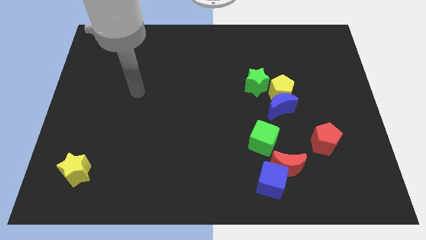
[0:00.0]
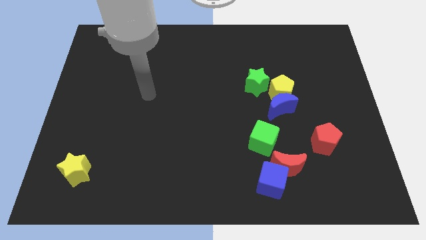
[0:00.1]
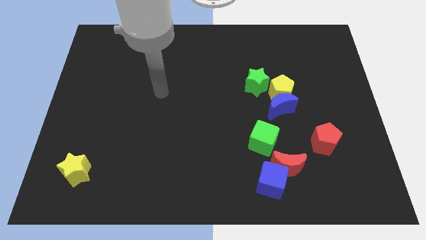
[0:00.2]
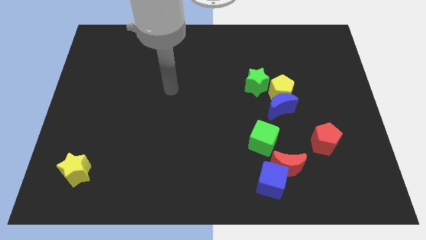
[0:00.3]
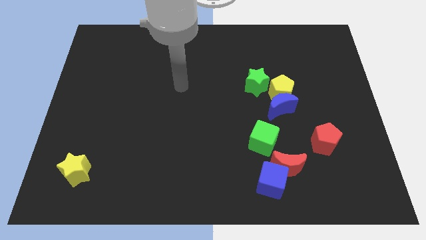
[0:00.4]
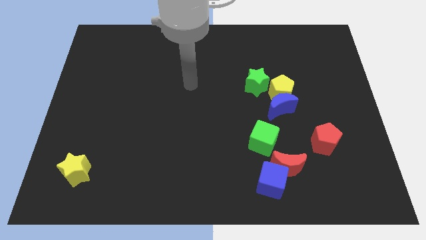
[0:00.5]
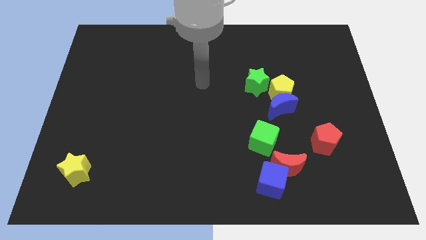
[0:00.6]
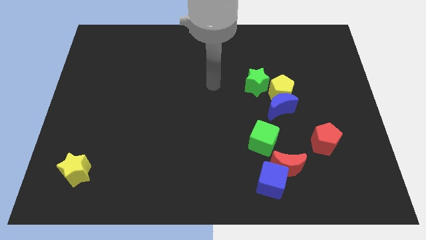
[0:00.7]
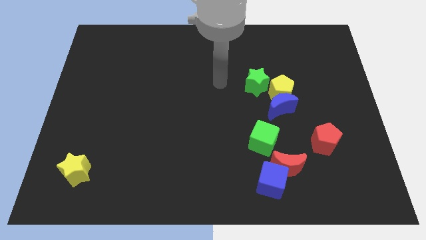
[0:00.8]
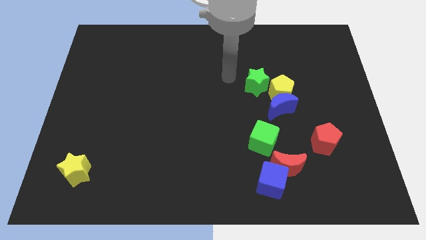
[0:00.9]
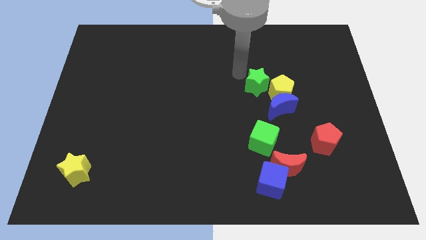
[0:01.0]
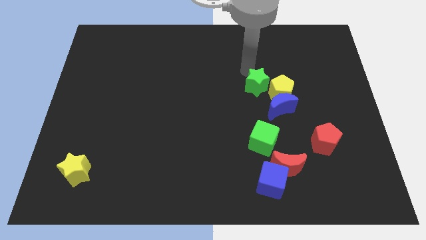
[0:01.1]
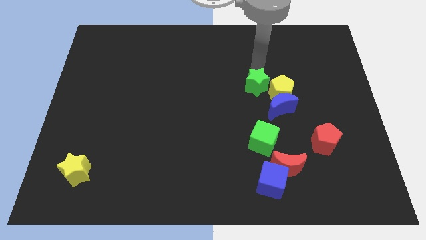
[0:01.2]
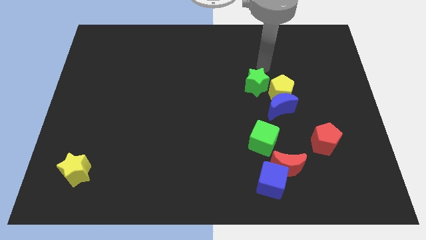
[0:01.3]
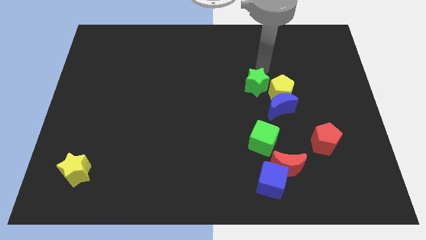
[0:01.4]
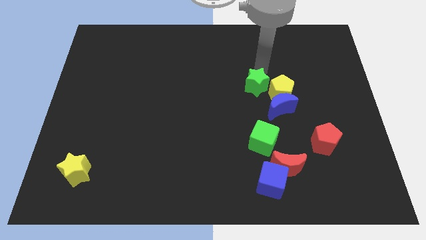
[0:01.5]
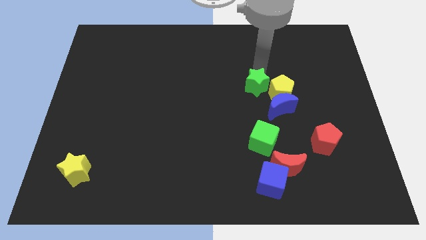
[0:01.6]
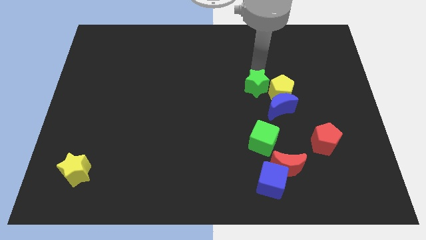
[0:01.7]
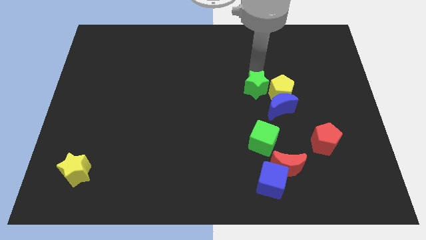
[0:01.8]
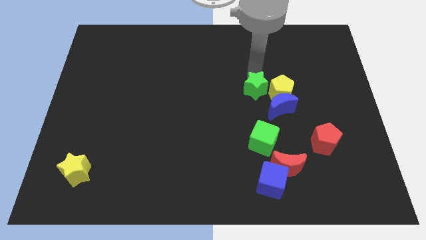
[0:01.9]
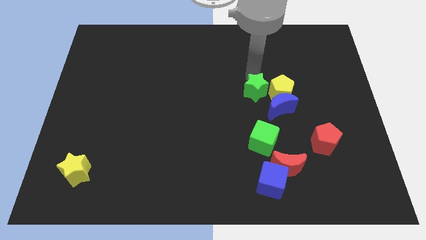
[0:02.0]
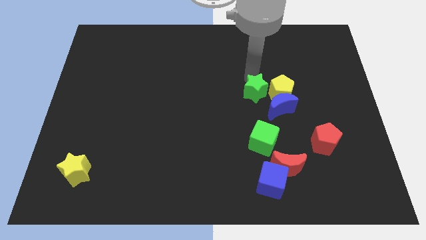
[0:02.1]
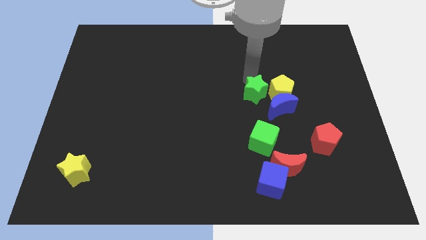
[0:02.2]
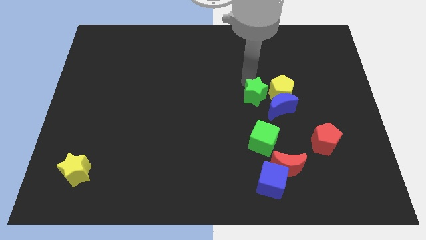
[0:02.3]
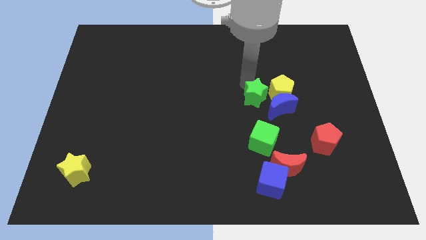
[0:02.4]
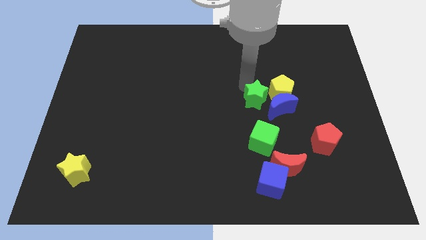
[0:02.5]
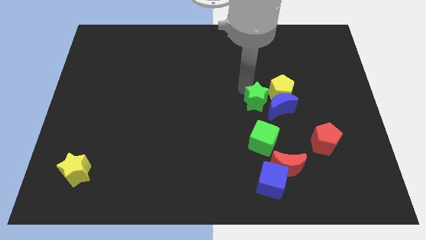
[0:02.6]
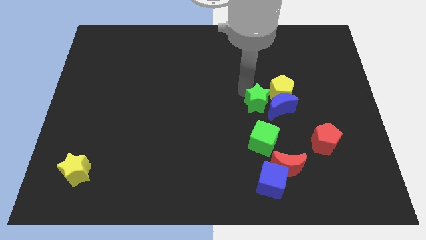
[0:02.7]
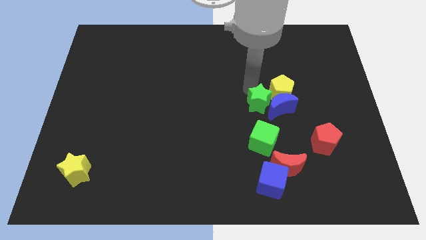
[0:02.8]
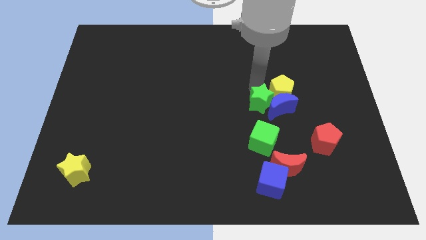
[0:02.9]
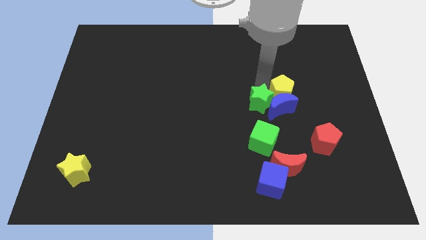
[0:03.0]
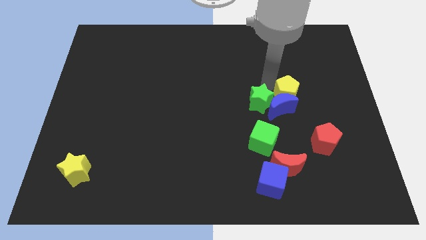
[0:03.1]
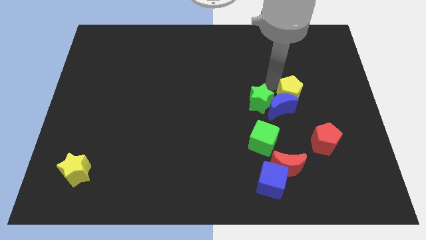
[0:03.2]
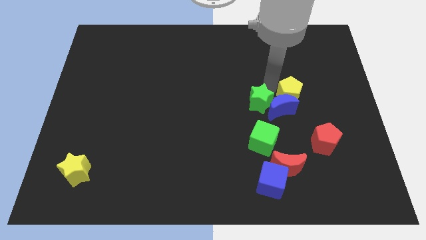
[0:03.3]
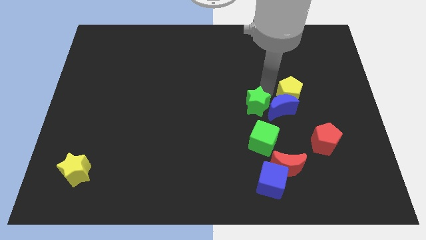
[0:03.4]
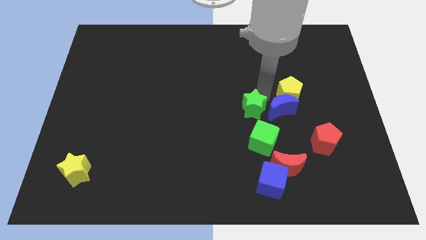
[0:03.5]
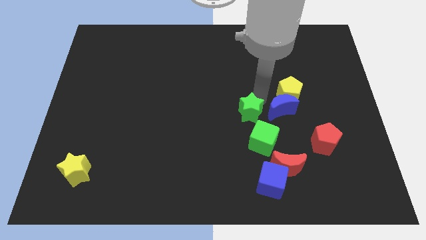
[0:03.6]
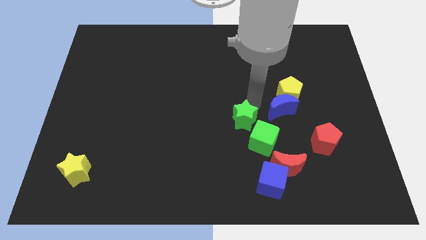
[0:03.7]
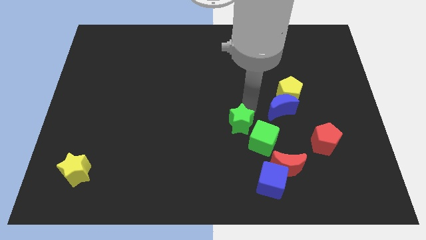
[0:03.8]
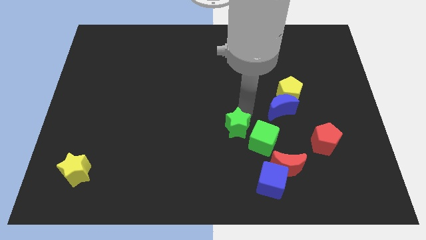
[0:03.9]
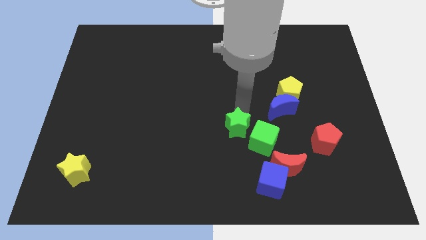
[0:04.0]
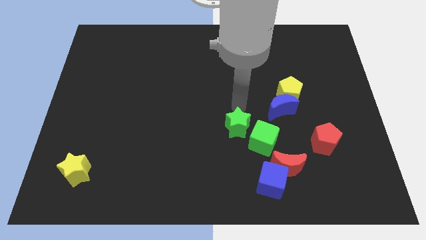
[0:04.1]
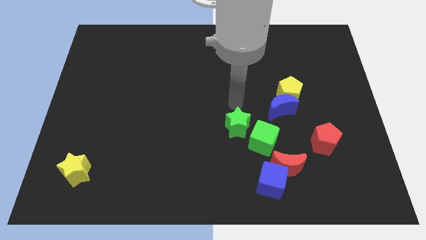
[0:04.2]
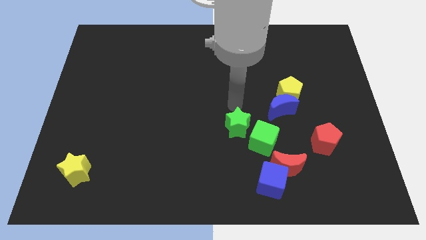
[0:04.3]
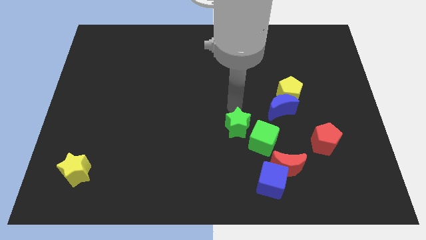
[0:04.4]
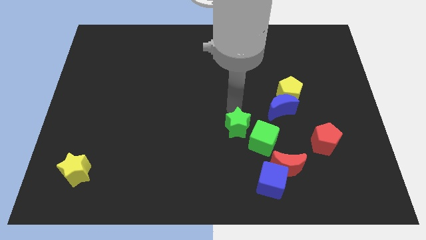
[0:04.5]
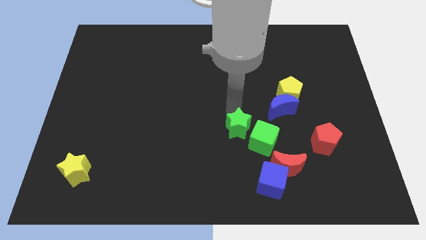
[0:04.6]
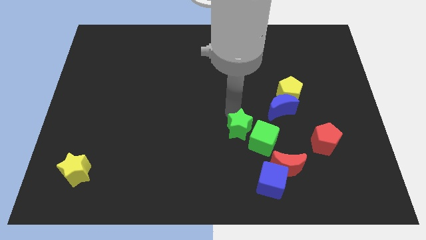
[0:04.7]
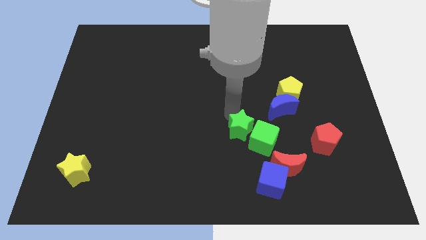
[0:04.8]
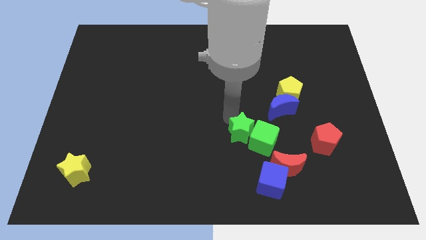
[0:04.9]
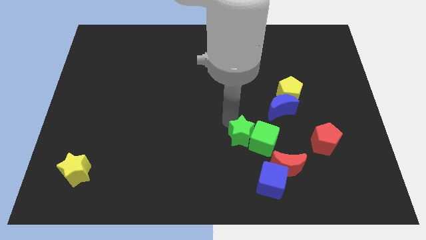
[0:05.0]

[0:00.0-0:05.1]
slide the green star to the bottom left side of the green cube

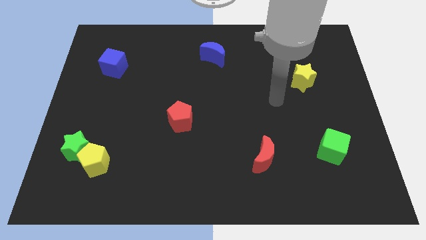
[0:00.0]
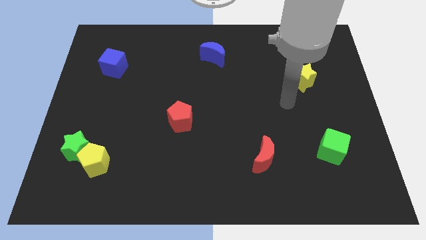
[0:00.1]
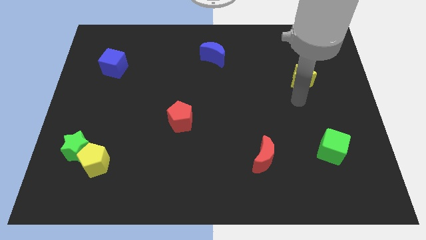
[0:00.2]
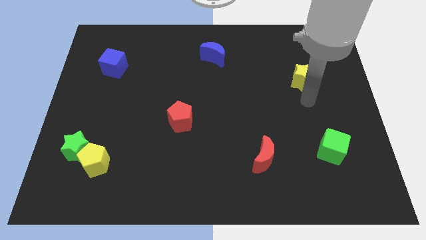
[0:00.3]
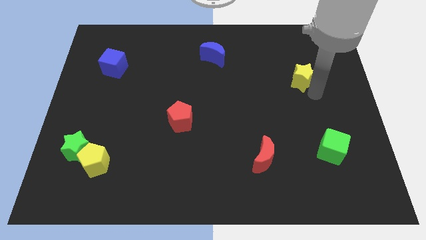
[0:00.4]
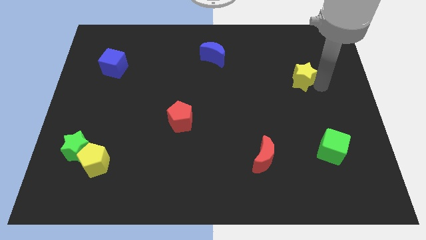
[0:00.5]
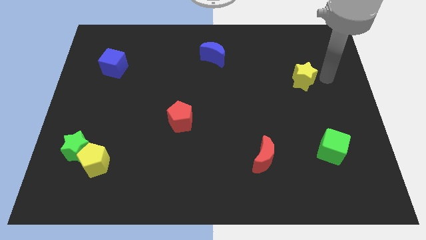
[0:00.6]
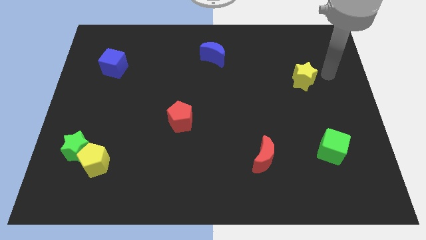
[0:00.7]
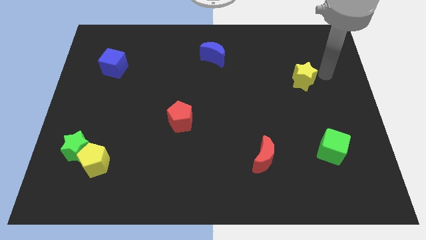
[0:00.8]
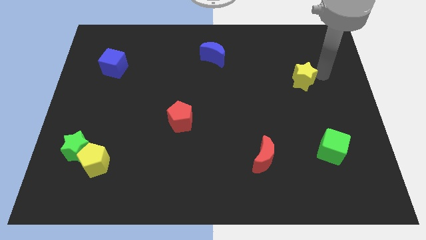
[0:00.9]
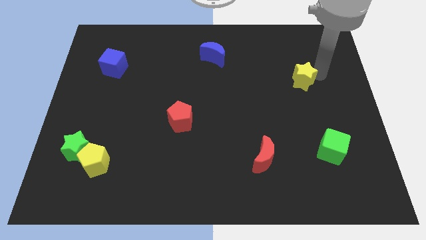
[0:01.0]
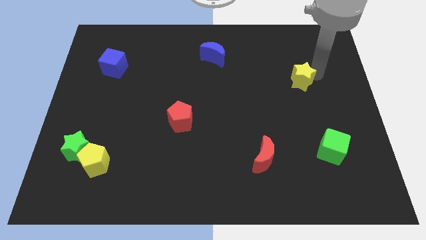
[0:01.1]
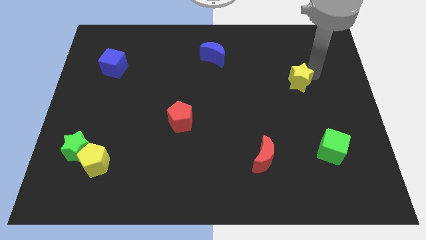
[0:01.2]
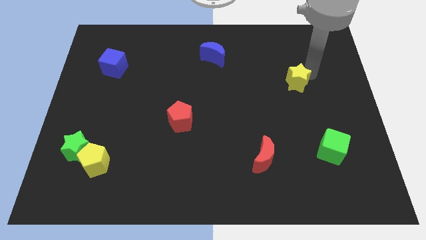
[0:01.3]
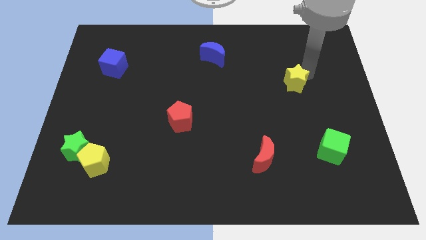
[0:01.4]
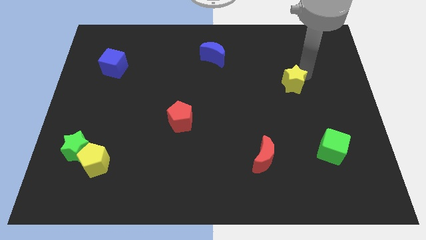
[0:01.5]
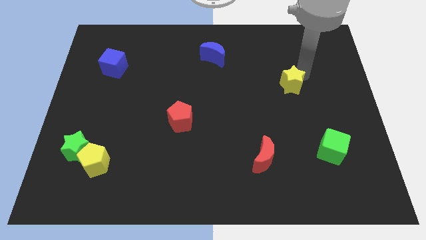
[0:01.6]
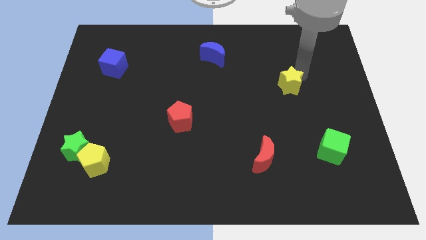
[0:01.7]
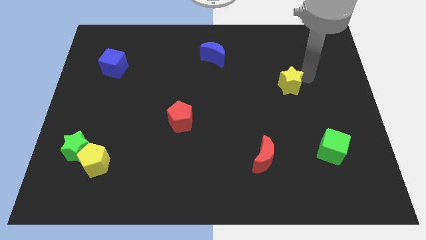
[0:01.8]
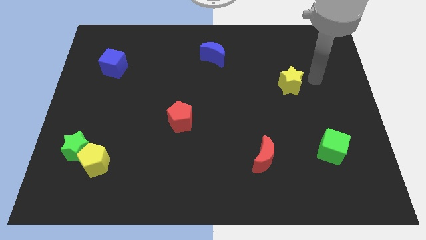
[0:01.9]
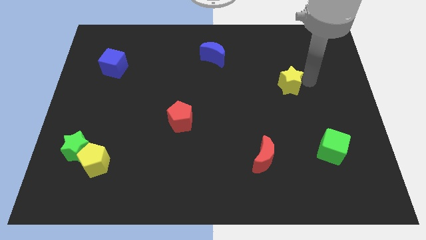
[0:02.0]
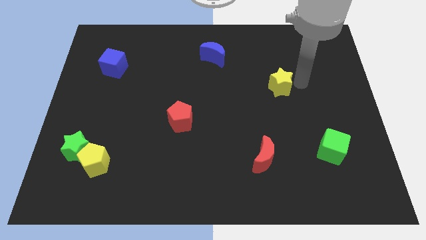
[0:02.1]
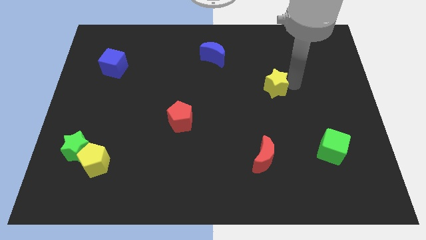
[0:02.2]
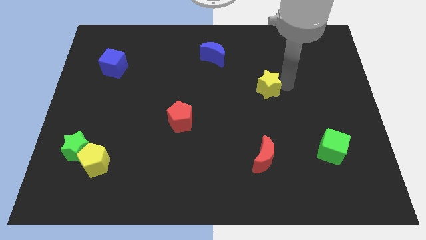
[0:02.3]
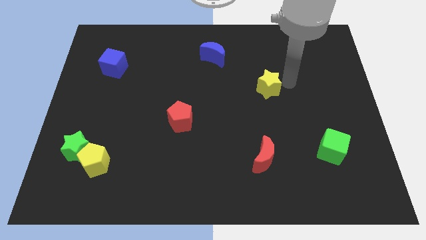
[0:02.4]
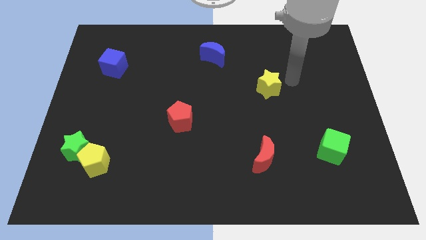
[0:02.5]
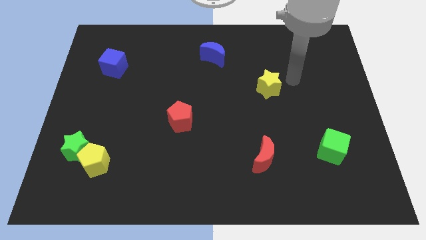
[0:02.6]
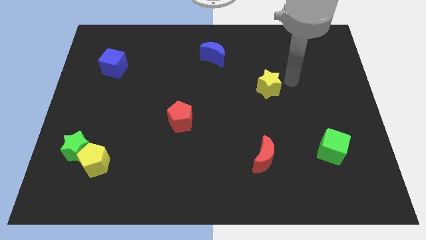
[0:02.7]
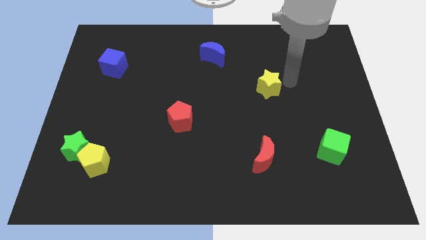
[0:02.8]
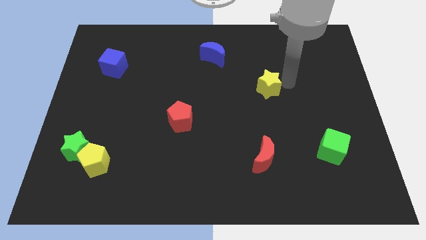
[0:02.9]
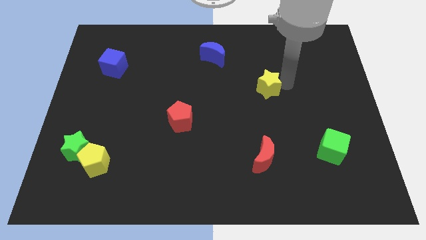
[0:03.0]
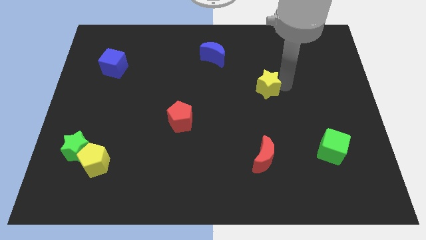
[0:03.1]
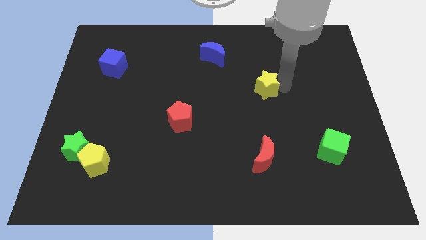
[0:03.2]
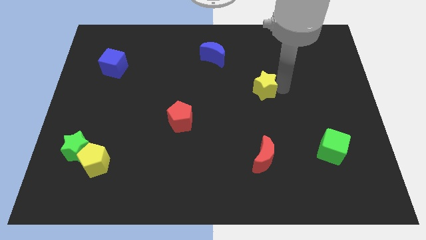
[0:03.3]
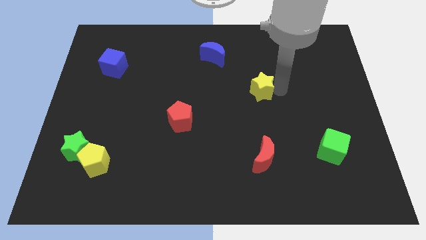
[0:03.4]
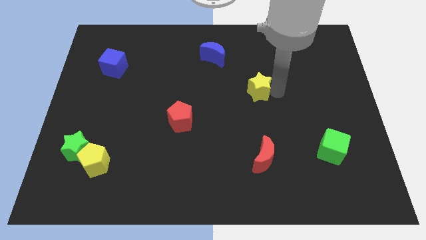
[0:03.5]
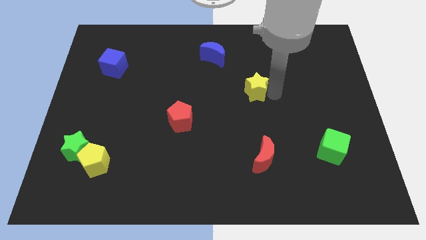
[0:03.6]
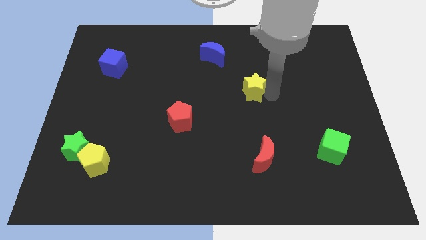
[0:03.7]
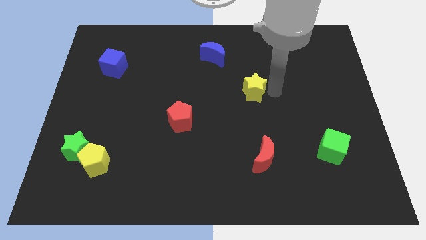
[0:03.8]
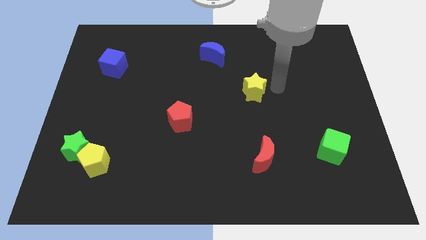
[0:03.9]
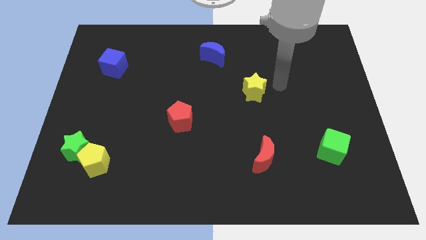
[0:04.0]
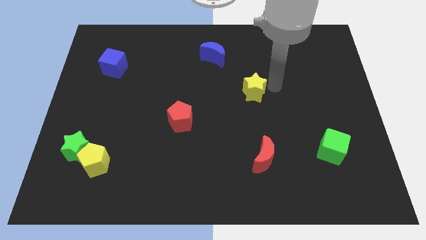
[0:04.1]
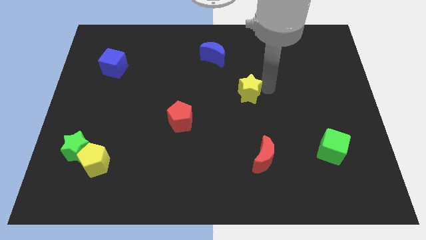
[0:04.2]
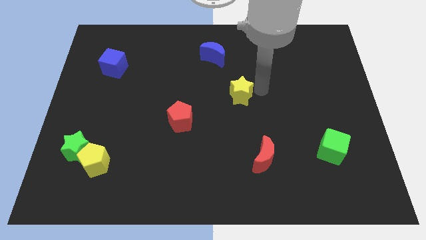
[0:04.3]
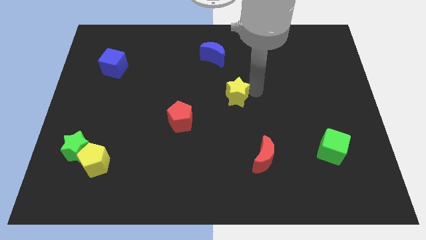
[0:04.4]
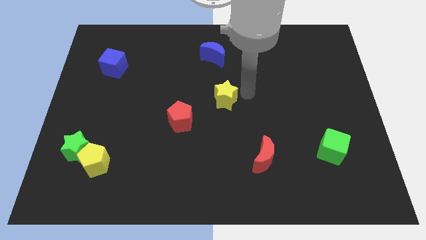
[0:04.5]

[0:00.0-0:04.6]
put the yellow star to the top right side of the red pentagon
